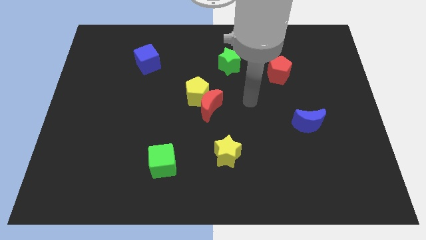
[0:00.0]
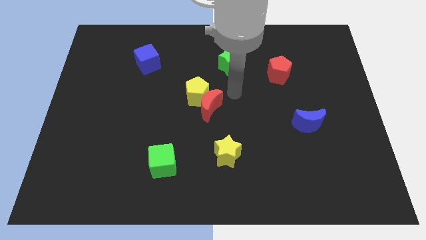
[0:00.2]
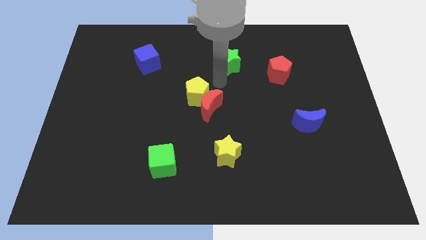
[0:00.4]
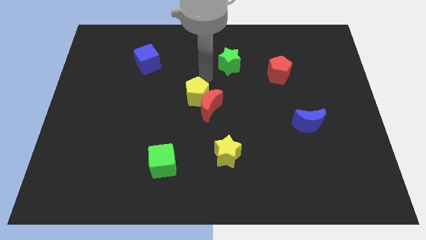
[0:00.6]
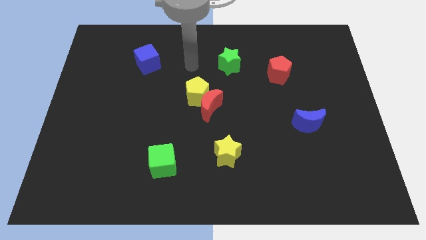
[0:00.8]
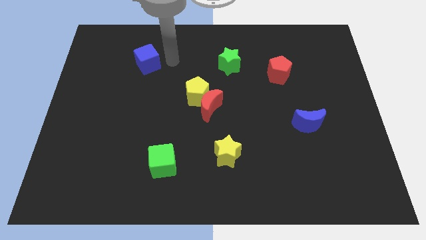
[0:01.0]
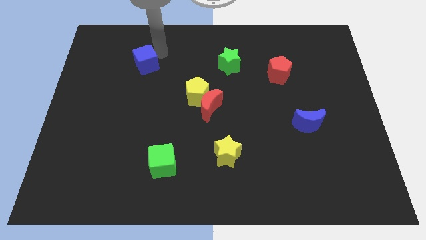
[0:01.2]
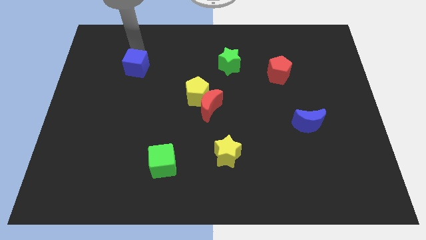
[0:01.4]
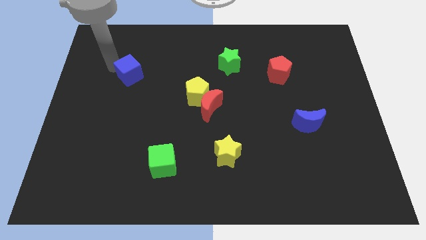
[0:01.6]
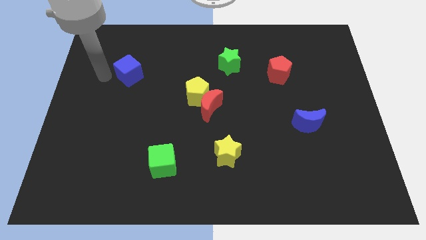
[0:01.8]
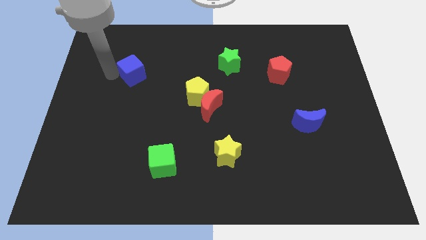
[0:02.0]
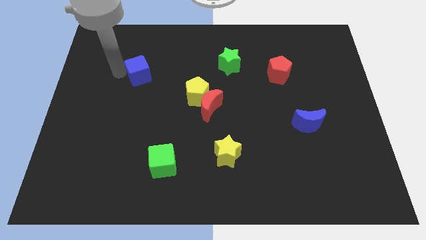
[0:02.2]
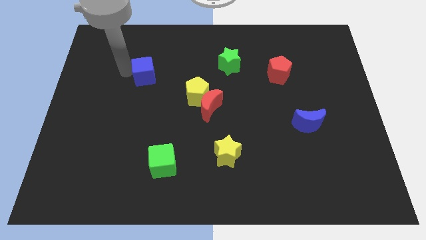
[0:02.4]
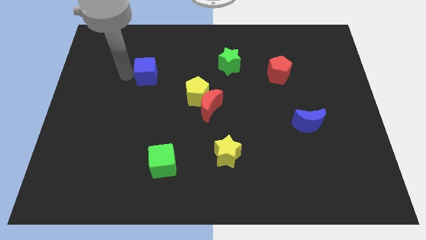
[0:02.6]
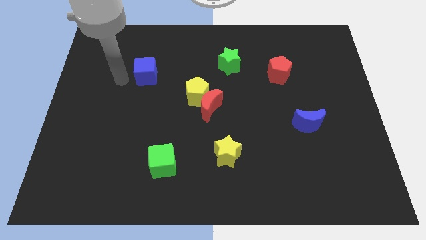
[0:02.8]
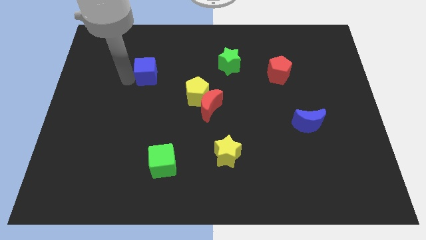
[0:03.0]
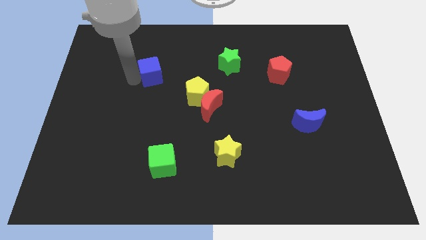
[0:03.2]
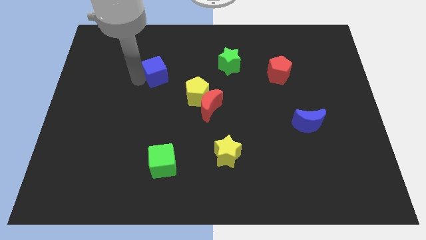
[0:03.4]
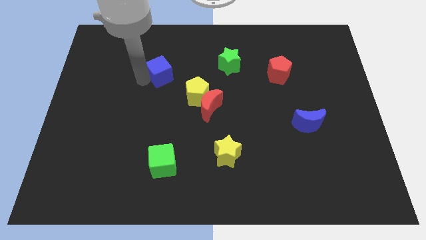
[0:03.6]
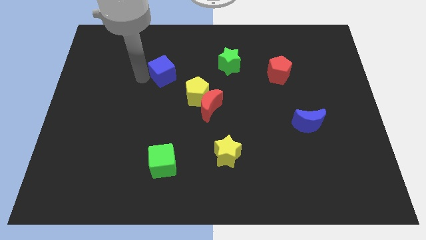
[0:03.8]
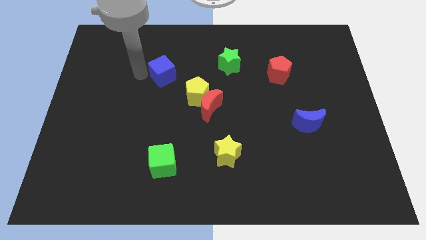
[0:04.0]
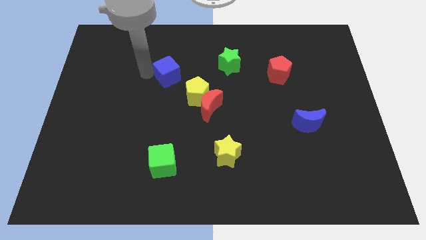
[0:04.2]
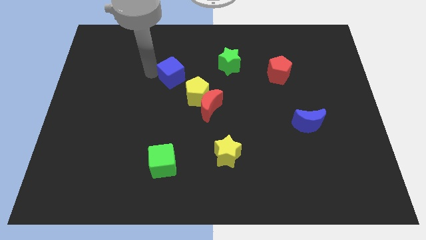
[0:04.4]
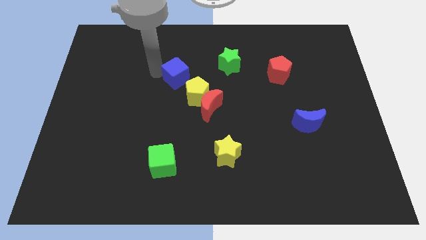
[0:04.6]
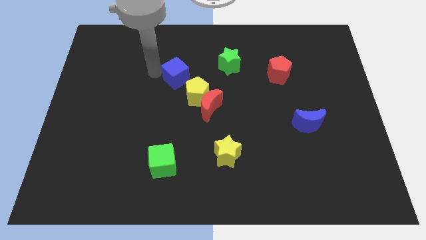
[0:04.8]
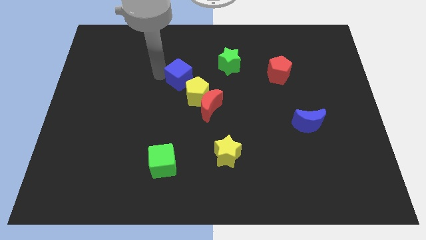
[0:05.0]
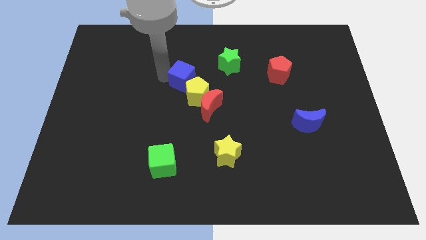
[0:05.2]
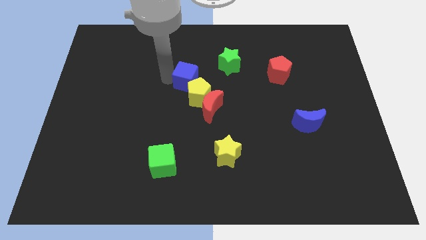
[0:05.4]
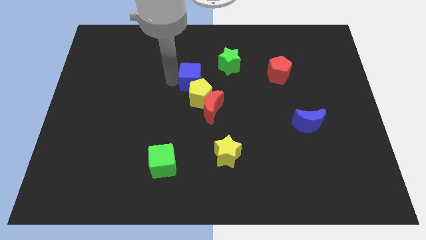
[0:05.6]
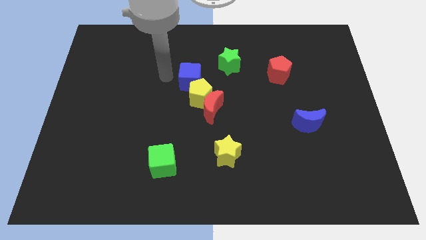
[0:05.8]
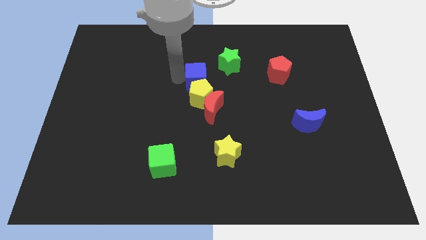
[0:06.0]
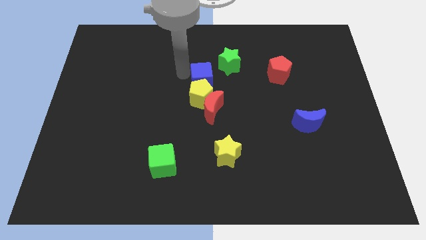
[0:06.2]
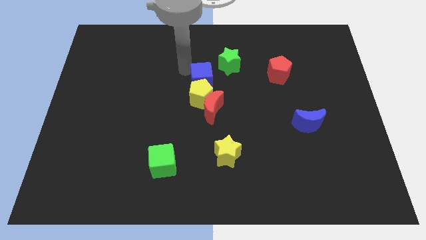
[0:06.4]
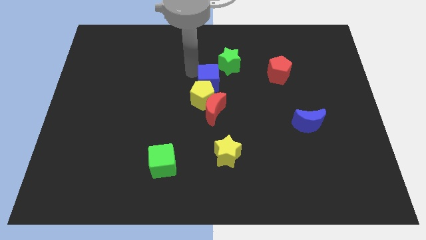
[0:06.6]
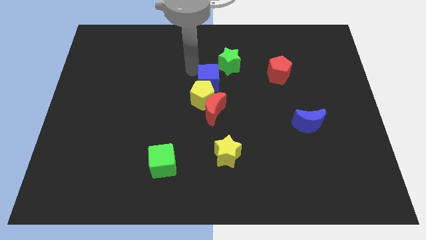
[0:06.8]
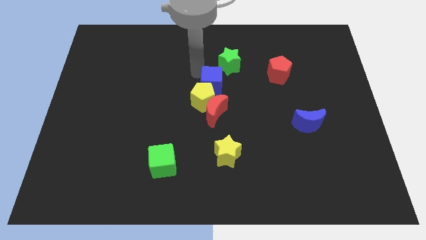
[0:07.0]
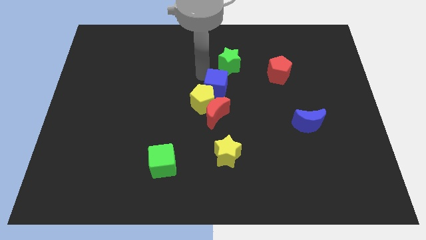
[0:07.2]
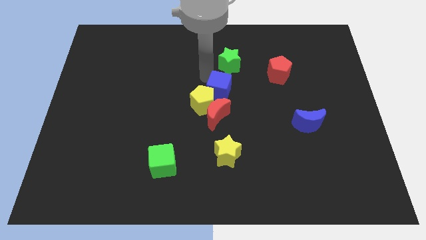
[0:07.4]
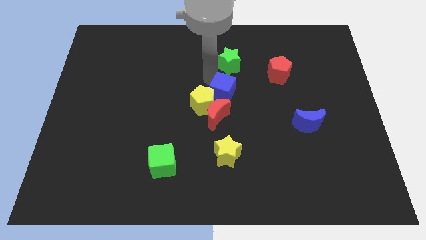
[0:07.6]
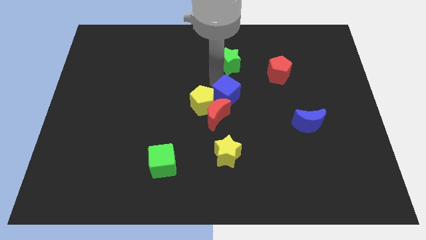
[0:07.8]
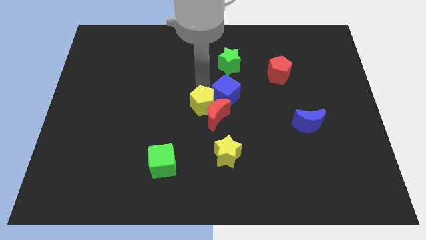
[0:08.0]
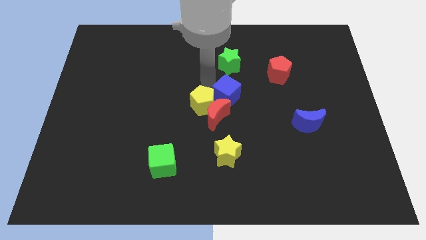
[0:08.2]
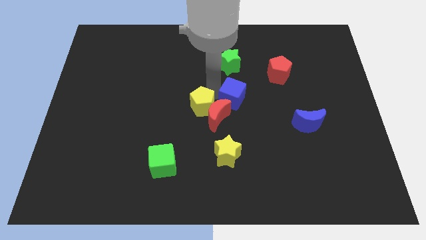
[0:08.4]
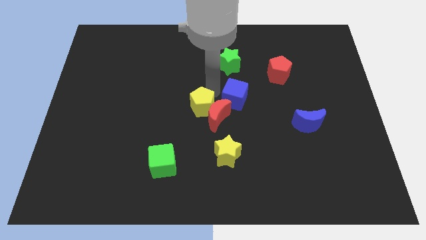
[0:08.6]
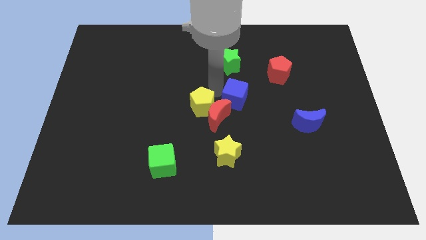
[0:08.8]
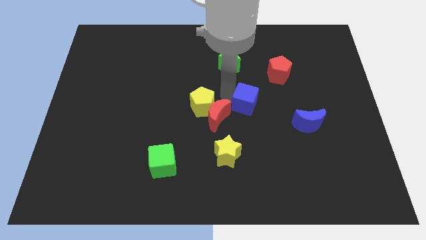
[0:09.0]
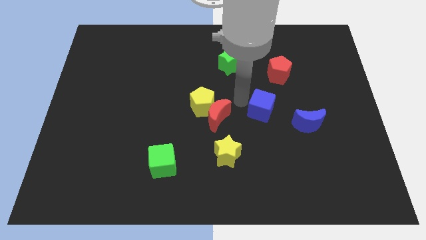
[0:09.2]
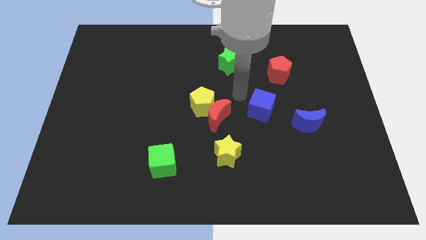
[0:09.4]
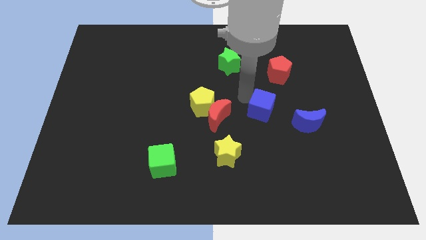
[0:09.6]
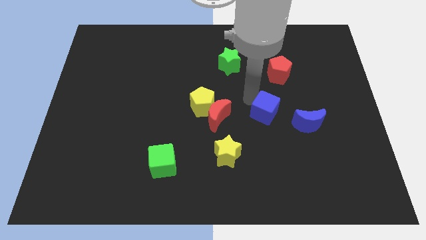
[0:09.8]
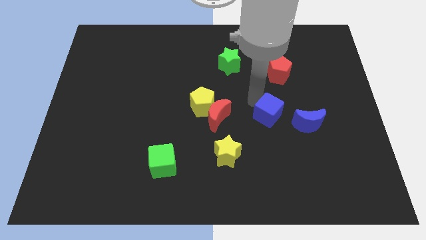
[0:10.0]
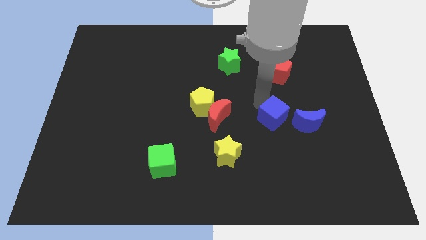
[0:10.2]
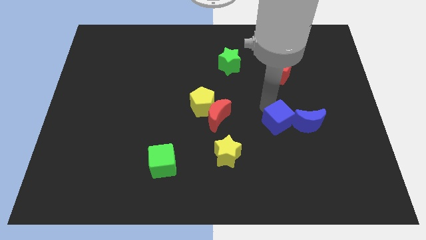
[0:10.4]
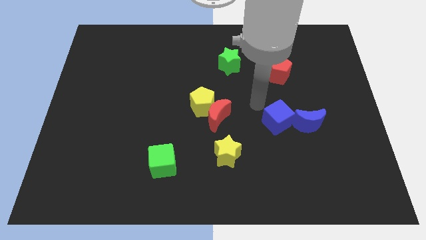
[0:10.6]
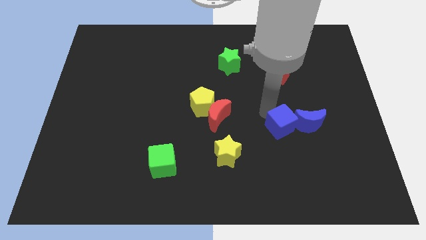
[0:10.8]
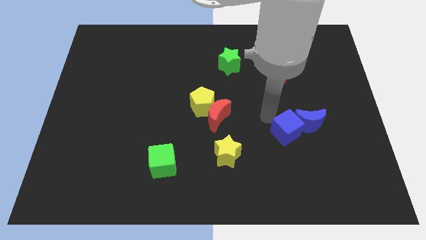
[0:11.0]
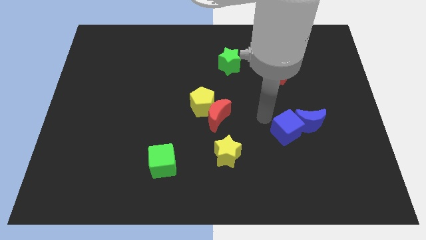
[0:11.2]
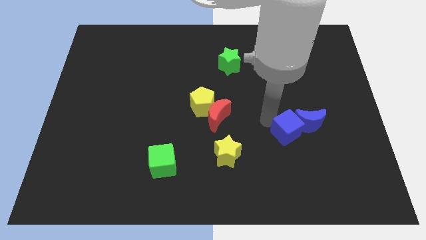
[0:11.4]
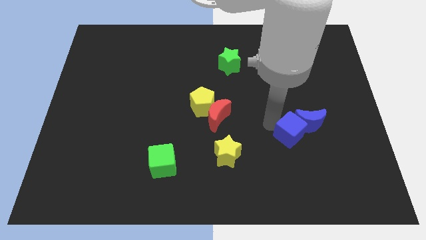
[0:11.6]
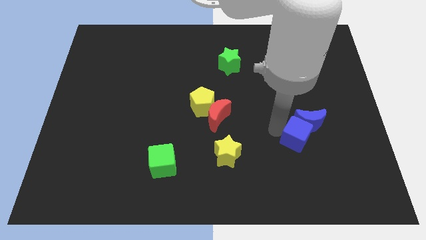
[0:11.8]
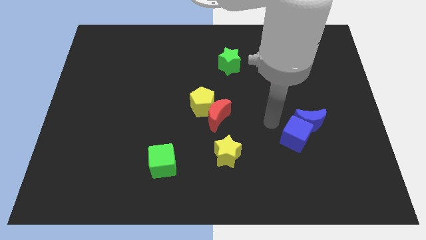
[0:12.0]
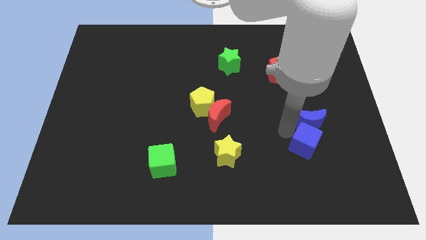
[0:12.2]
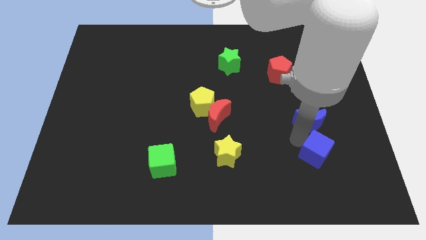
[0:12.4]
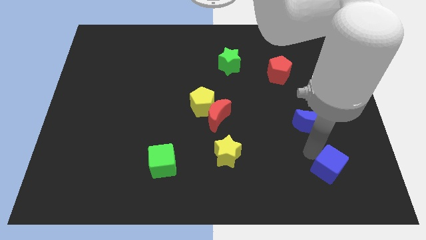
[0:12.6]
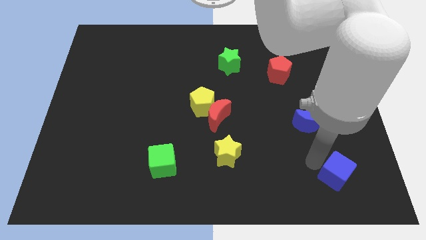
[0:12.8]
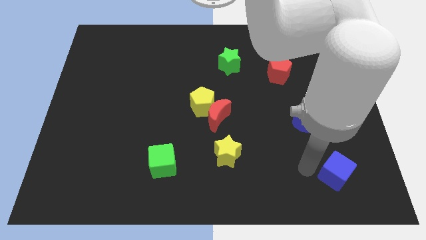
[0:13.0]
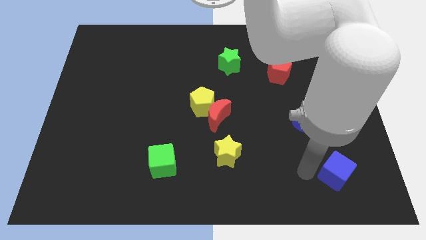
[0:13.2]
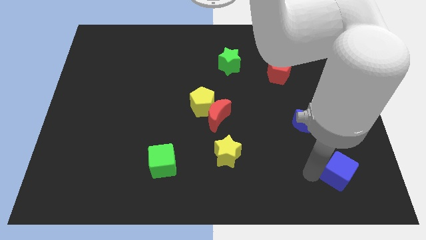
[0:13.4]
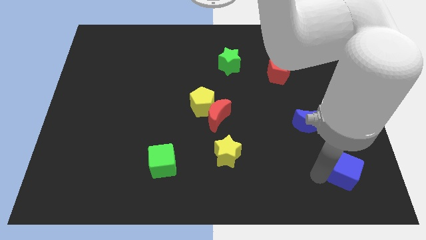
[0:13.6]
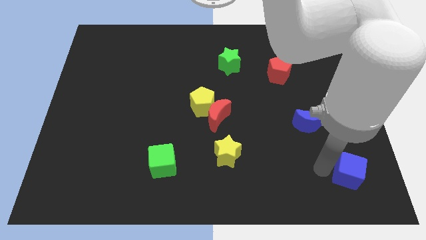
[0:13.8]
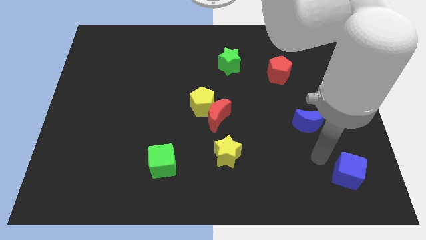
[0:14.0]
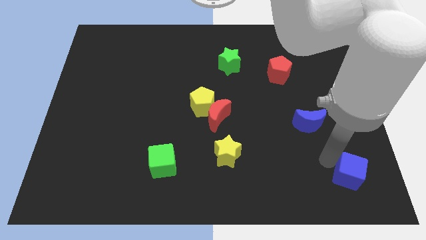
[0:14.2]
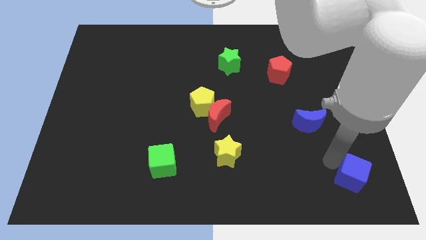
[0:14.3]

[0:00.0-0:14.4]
push the blue cube to the bottom right of the board
